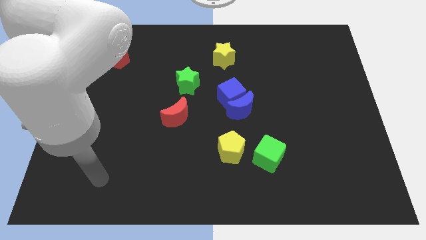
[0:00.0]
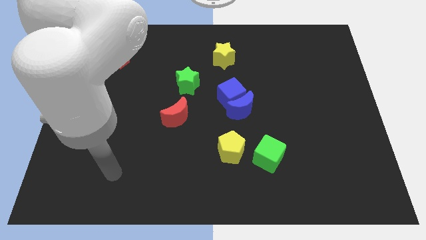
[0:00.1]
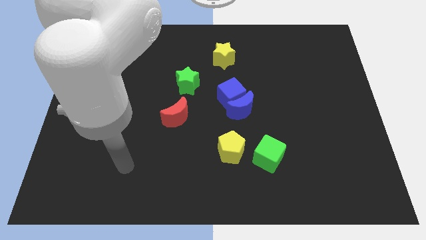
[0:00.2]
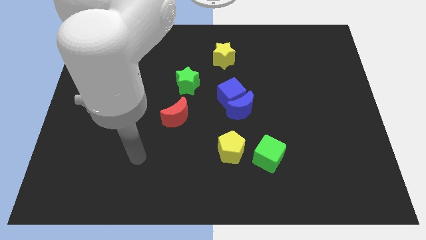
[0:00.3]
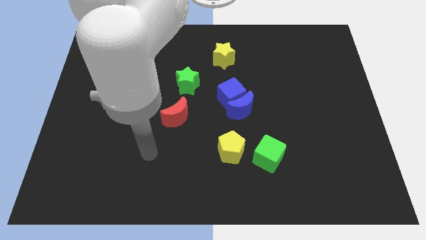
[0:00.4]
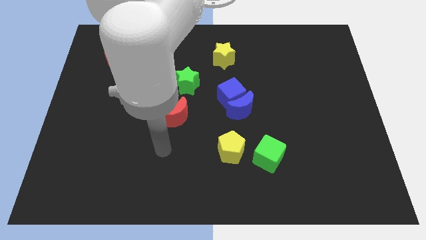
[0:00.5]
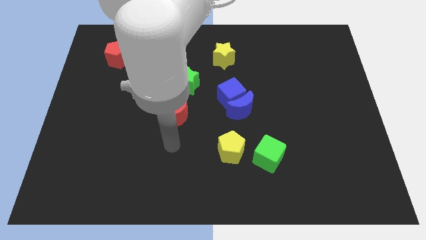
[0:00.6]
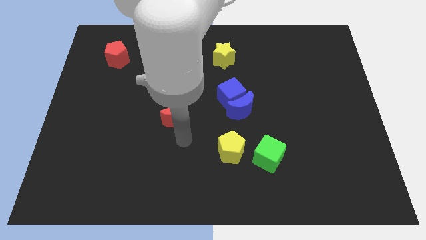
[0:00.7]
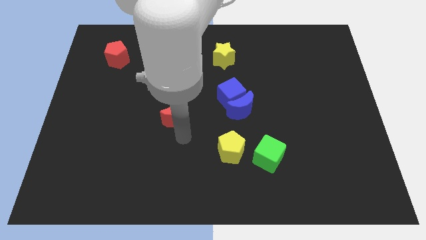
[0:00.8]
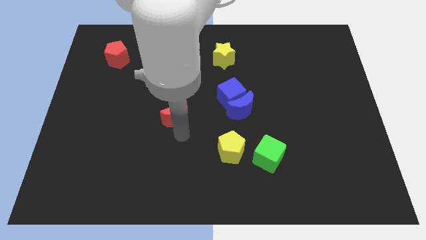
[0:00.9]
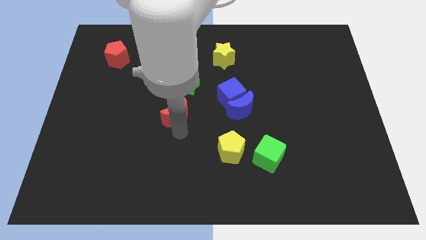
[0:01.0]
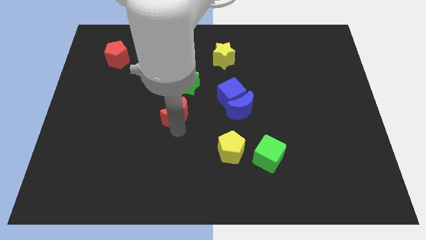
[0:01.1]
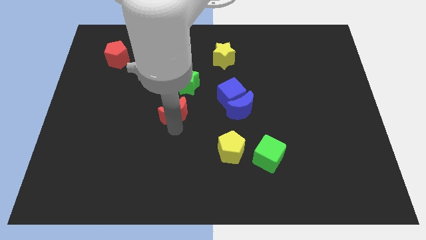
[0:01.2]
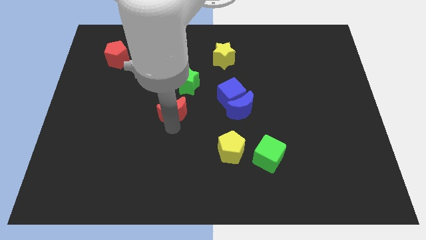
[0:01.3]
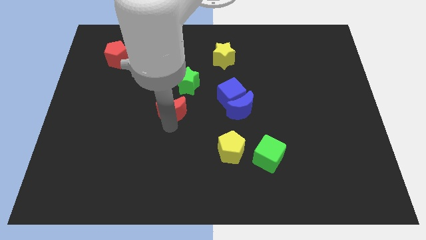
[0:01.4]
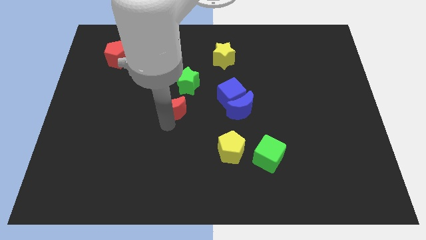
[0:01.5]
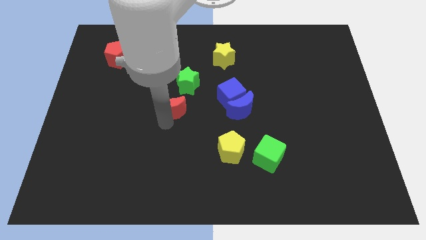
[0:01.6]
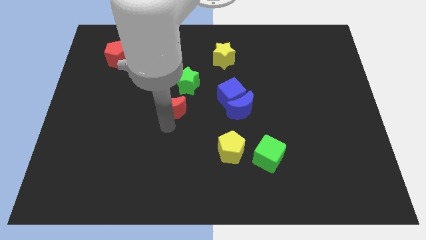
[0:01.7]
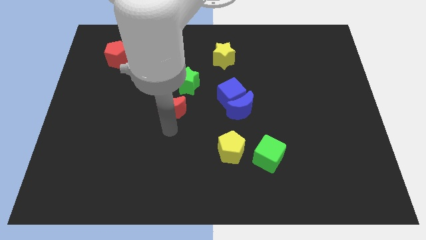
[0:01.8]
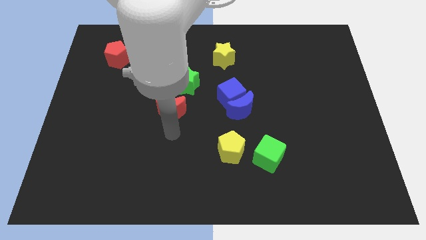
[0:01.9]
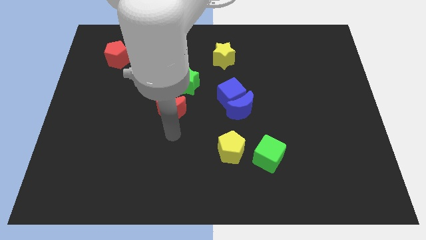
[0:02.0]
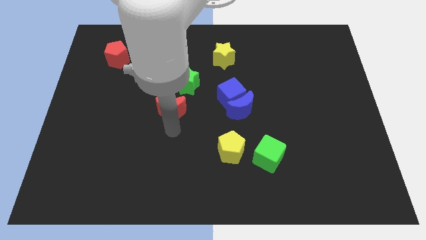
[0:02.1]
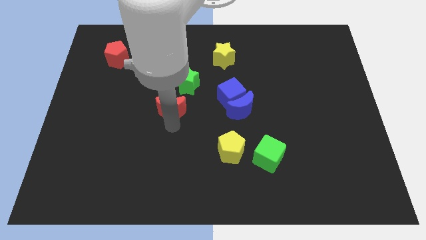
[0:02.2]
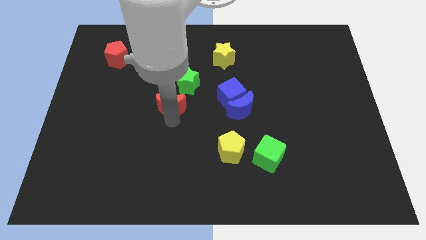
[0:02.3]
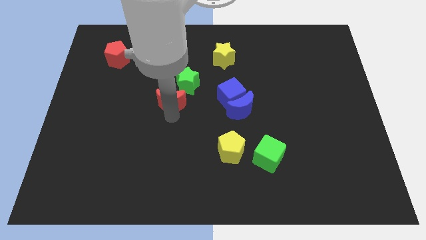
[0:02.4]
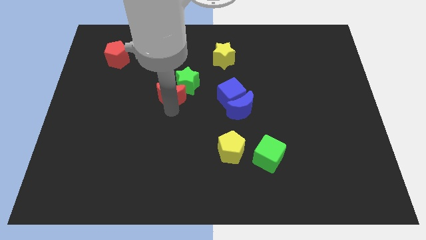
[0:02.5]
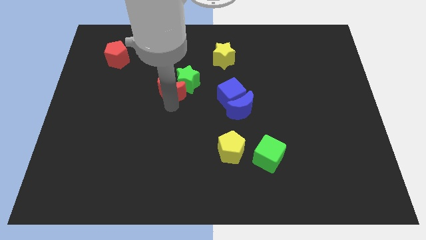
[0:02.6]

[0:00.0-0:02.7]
slide the red moon a little up

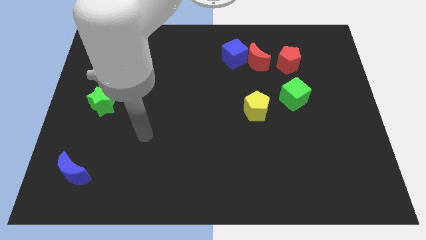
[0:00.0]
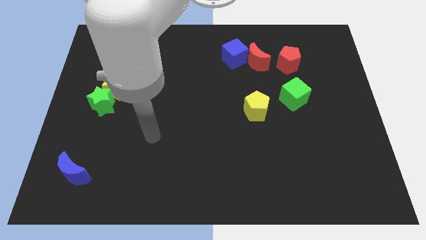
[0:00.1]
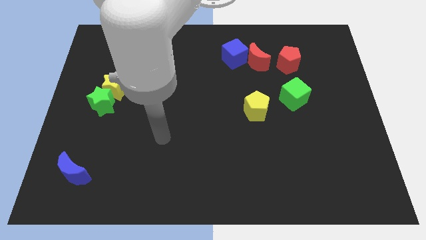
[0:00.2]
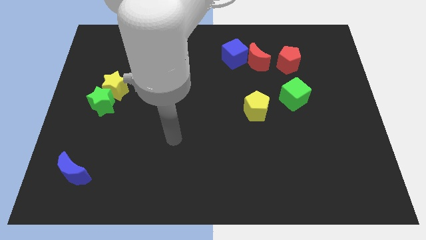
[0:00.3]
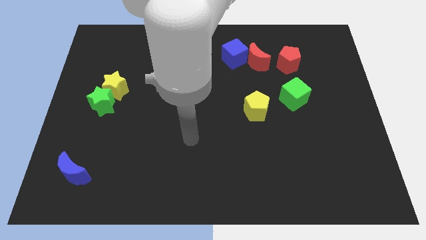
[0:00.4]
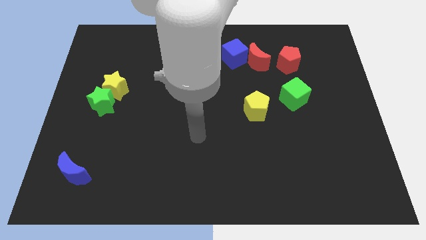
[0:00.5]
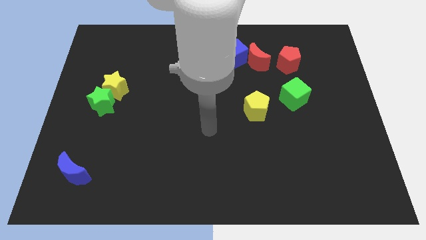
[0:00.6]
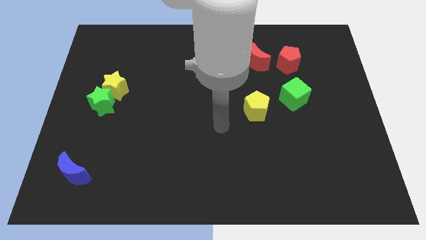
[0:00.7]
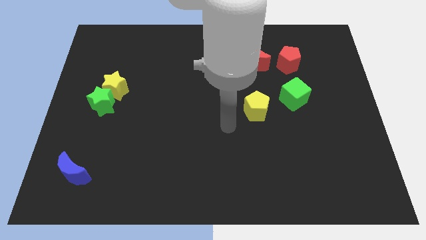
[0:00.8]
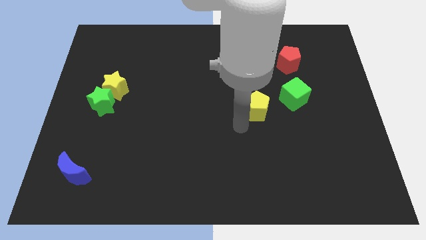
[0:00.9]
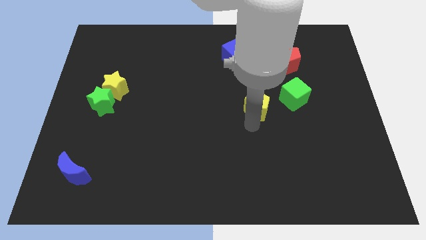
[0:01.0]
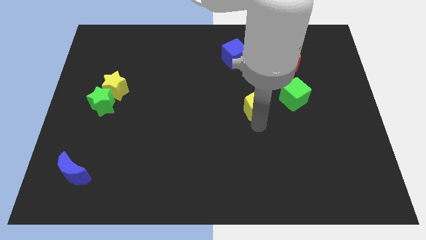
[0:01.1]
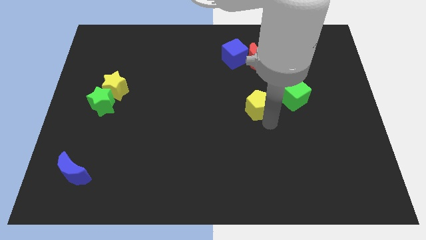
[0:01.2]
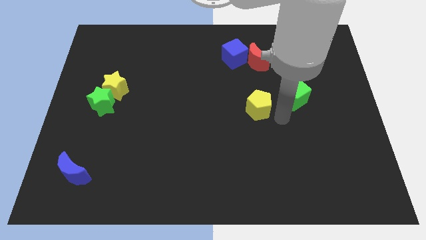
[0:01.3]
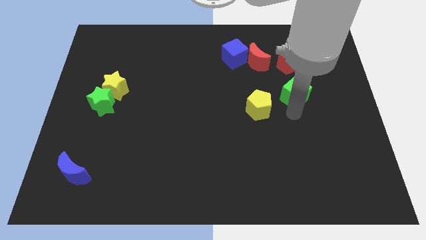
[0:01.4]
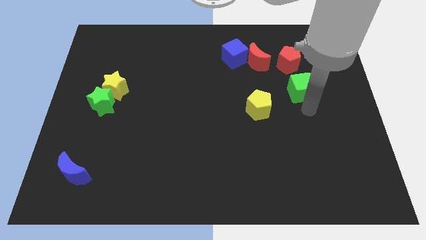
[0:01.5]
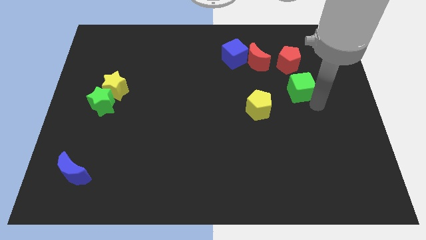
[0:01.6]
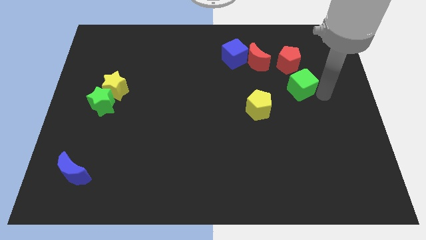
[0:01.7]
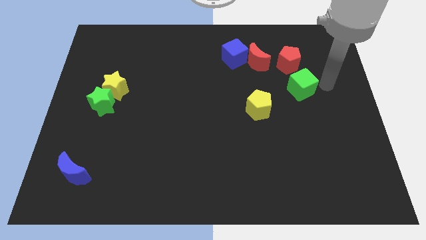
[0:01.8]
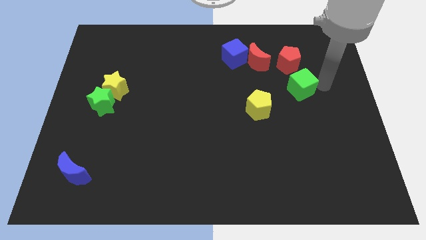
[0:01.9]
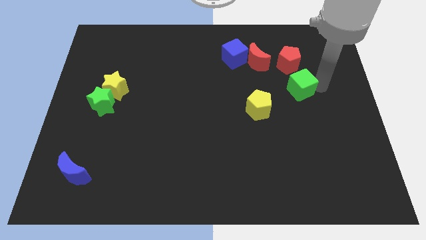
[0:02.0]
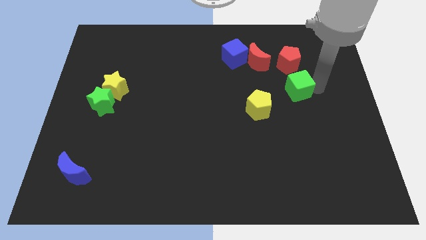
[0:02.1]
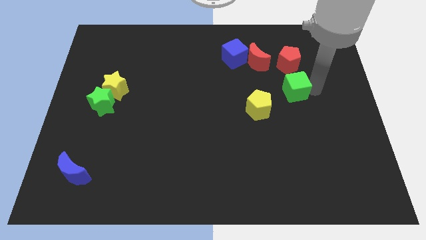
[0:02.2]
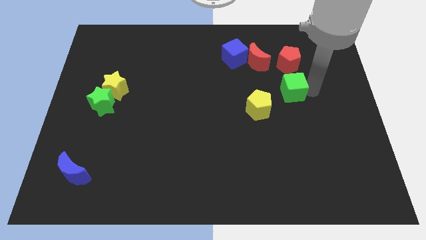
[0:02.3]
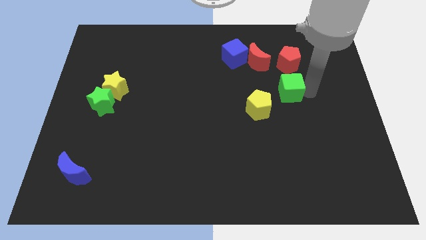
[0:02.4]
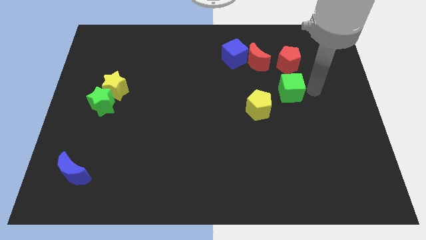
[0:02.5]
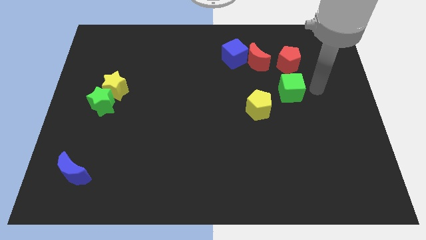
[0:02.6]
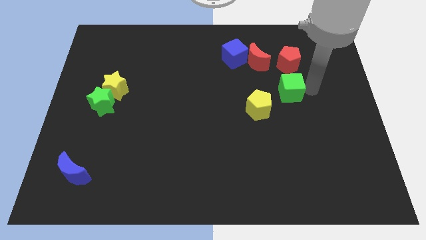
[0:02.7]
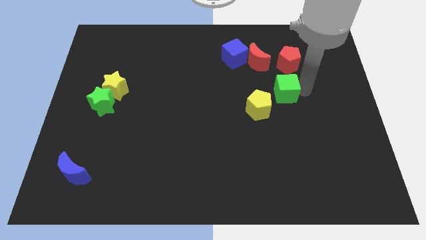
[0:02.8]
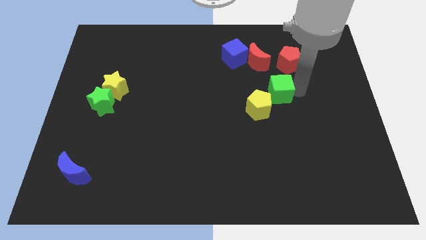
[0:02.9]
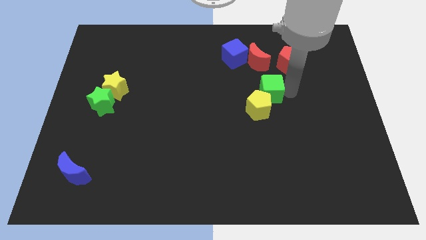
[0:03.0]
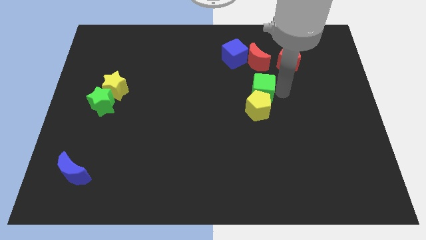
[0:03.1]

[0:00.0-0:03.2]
push the green cube slightly left

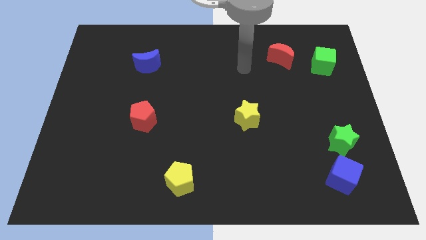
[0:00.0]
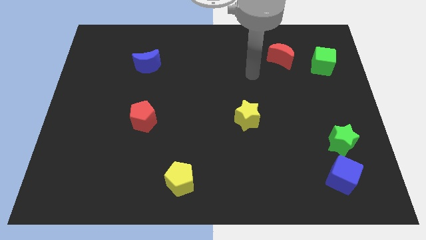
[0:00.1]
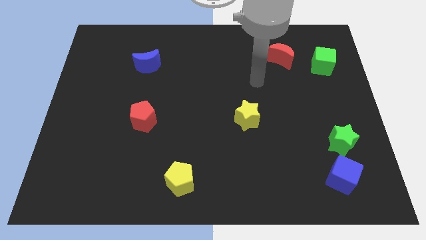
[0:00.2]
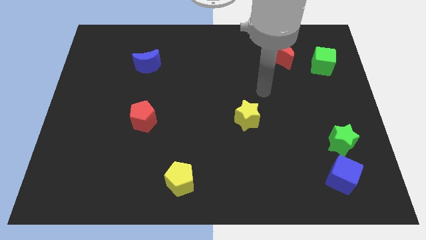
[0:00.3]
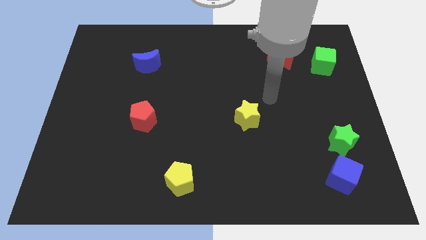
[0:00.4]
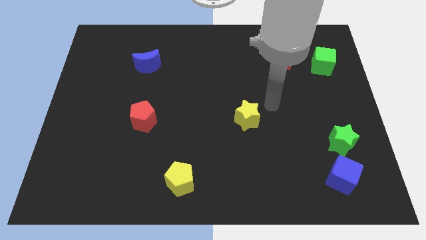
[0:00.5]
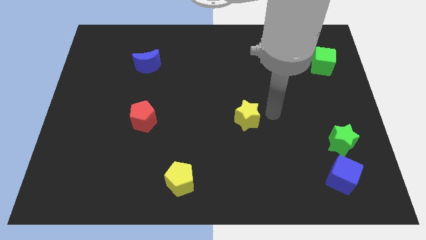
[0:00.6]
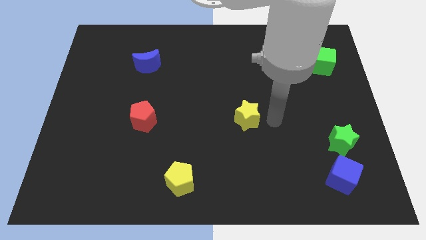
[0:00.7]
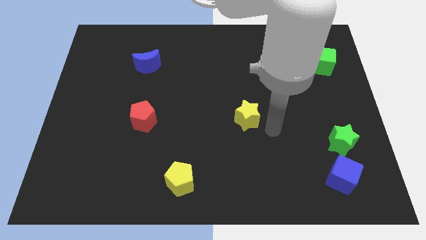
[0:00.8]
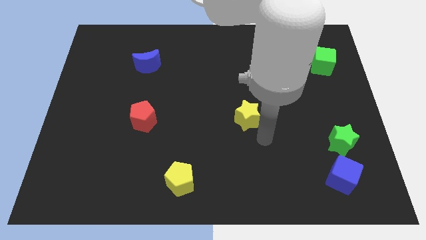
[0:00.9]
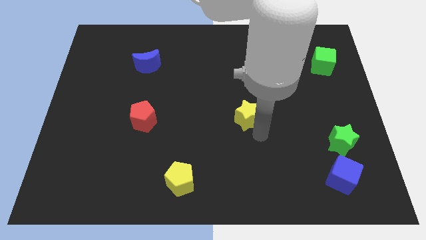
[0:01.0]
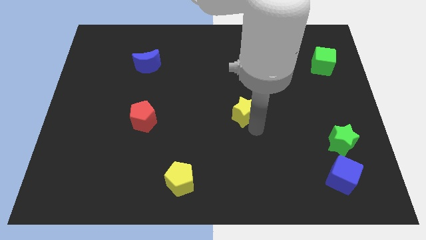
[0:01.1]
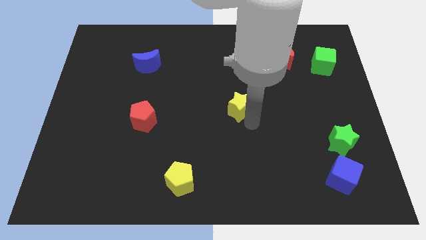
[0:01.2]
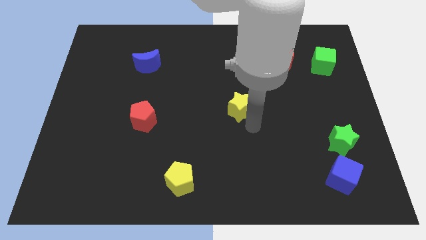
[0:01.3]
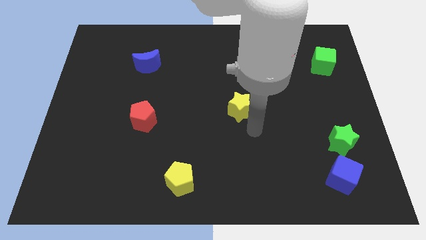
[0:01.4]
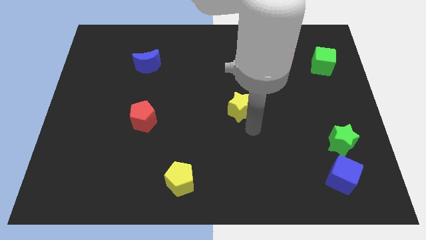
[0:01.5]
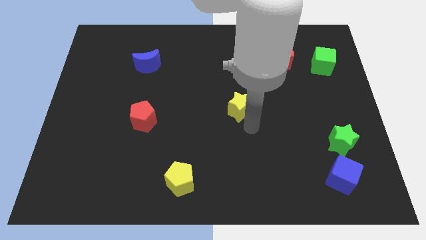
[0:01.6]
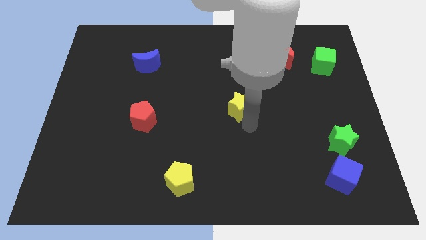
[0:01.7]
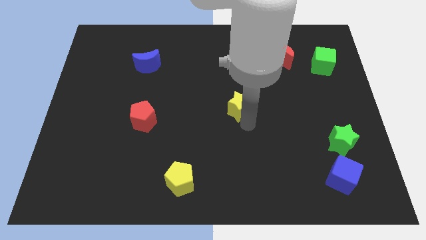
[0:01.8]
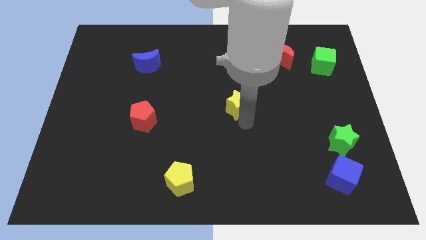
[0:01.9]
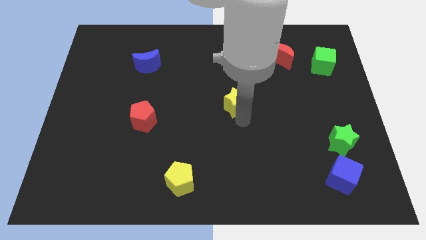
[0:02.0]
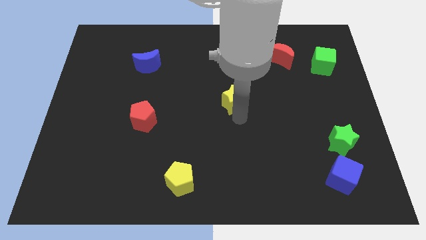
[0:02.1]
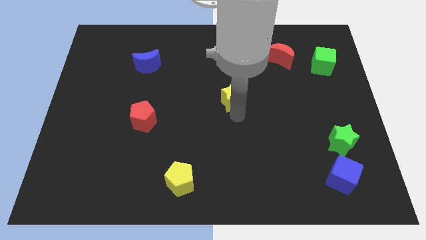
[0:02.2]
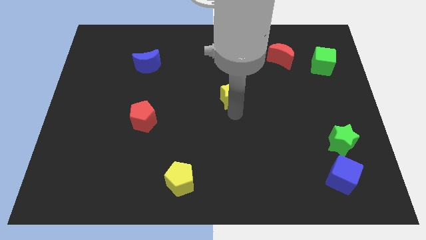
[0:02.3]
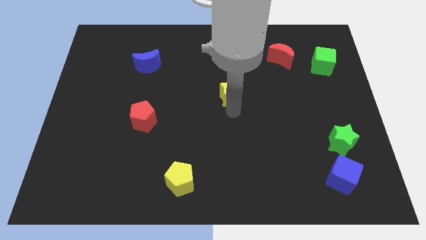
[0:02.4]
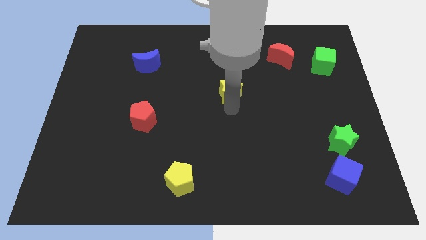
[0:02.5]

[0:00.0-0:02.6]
push the yellow star up a little bit
